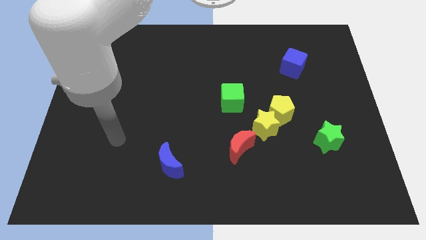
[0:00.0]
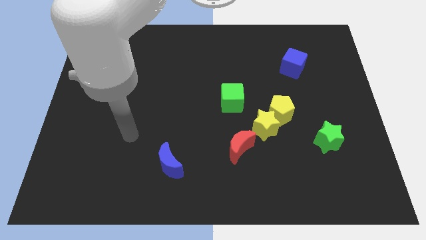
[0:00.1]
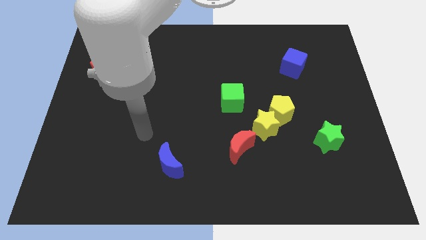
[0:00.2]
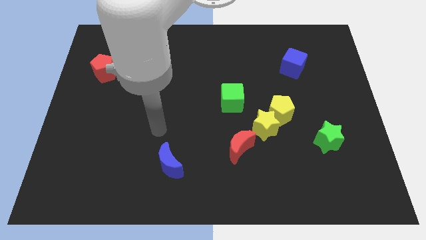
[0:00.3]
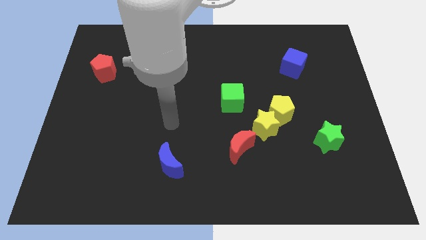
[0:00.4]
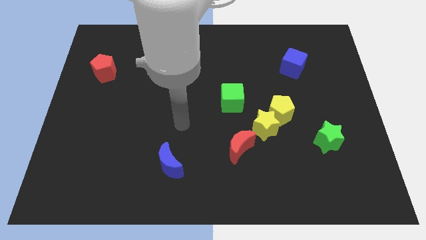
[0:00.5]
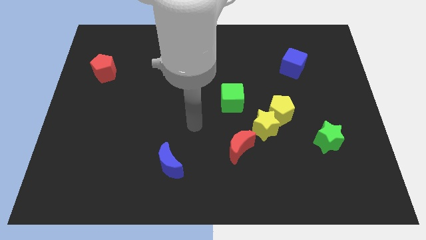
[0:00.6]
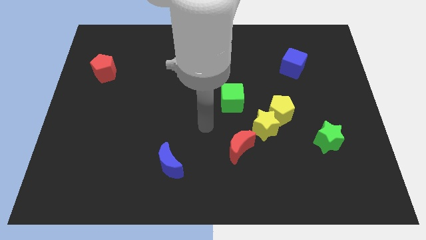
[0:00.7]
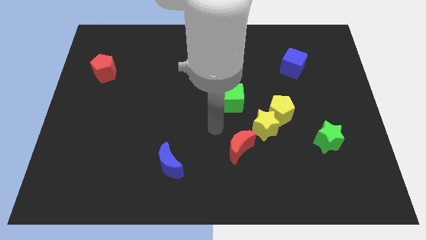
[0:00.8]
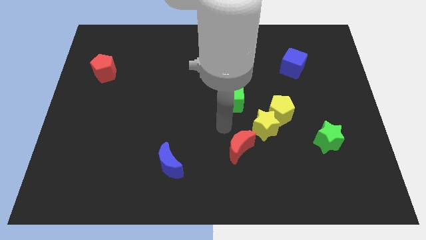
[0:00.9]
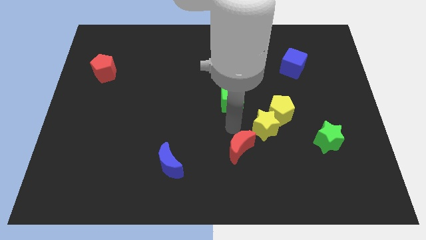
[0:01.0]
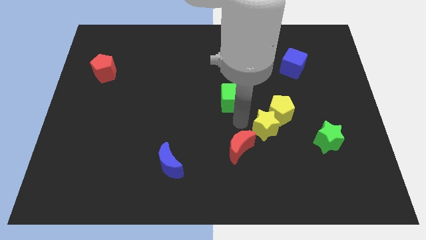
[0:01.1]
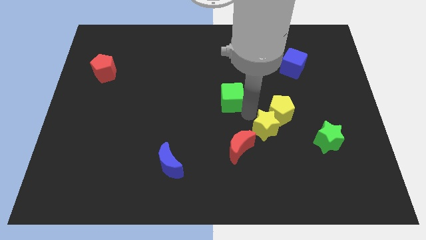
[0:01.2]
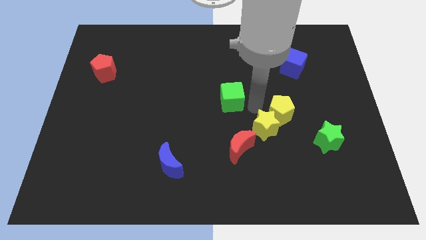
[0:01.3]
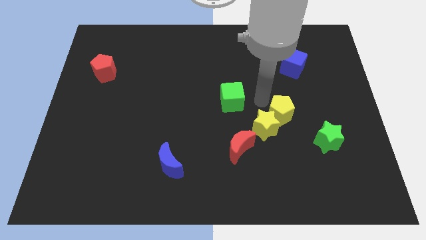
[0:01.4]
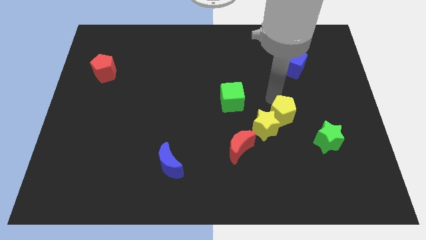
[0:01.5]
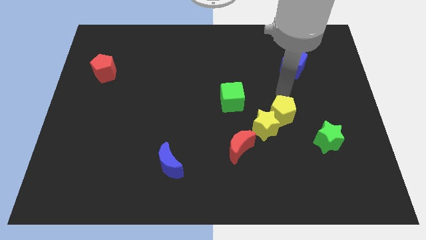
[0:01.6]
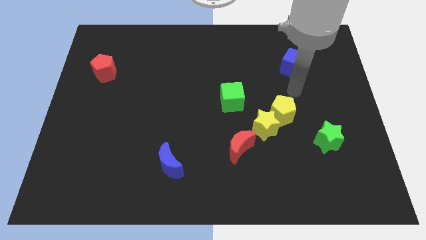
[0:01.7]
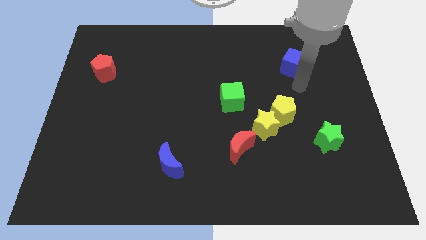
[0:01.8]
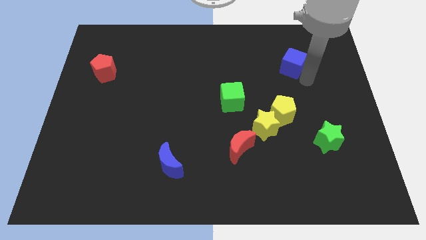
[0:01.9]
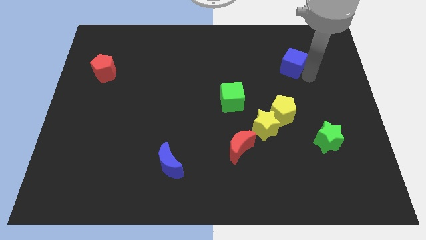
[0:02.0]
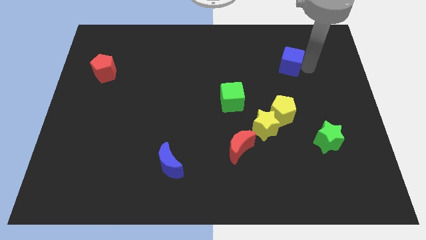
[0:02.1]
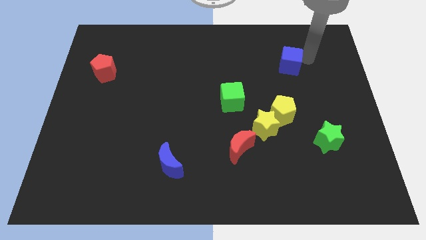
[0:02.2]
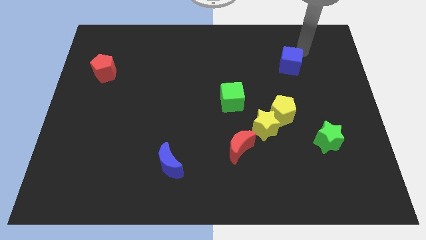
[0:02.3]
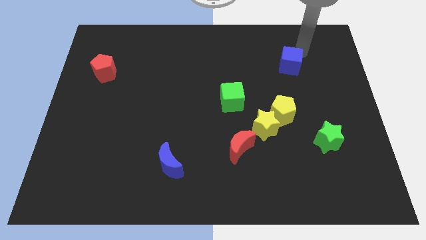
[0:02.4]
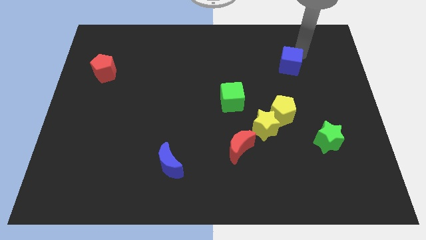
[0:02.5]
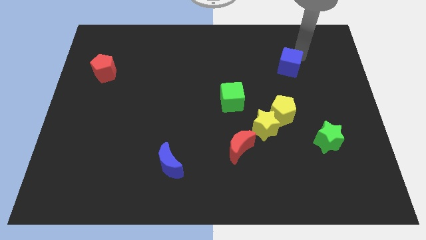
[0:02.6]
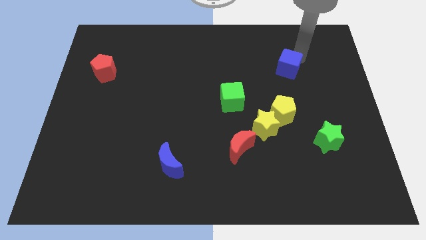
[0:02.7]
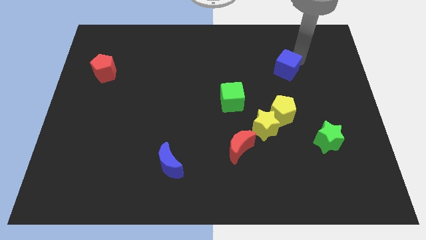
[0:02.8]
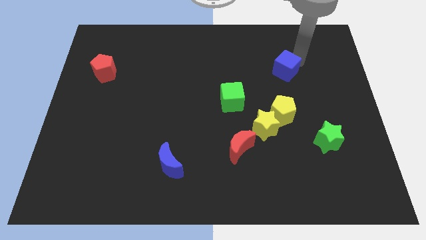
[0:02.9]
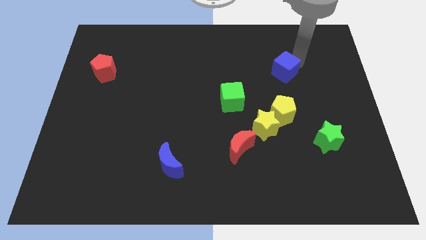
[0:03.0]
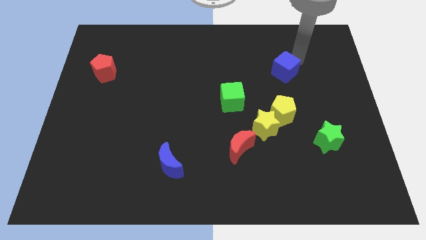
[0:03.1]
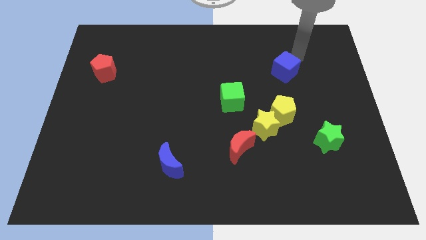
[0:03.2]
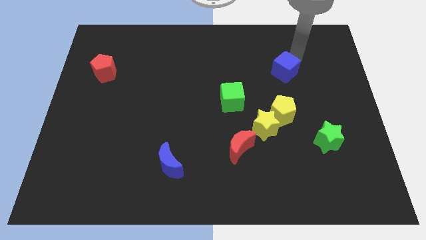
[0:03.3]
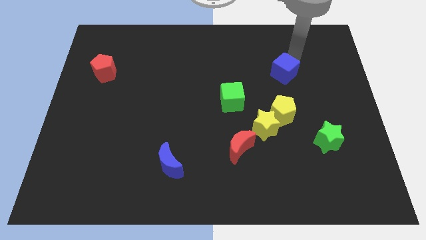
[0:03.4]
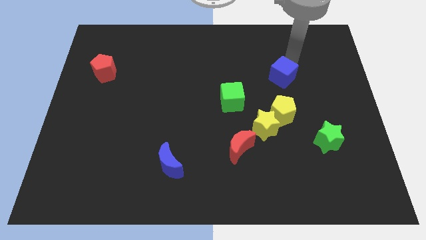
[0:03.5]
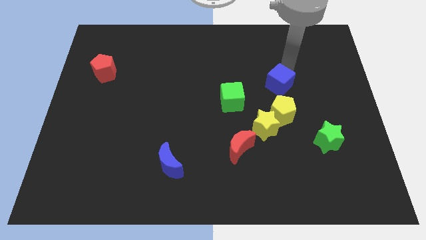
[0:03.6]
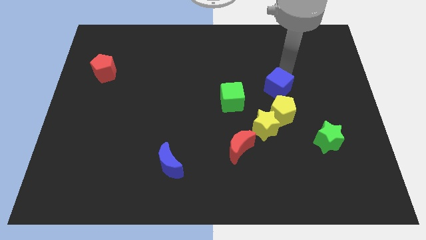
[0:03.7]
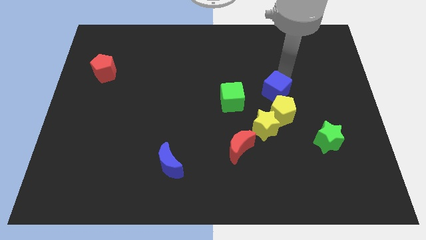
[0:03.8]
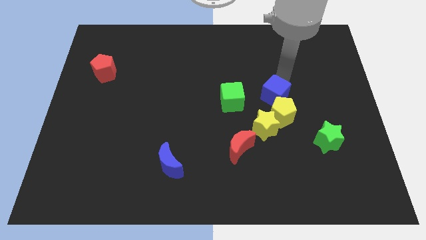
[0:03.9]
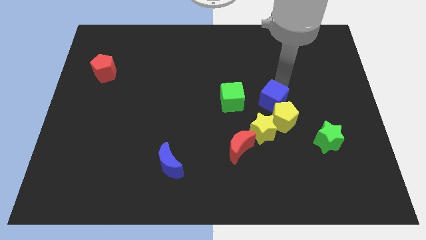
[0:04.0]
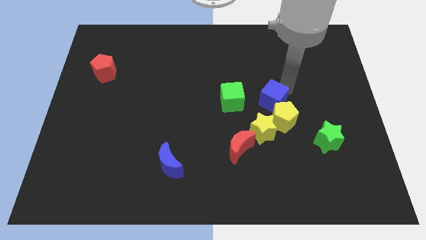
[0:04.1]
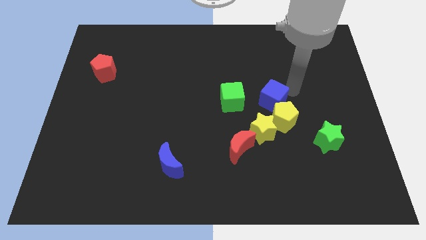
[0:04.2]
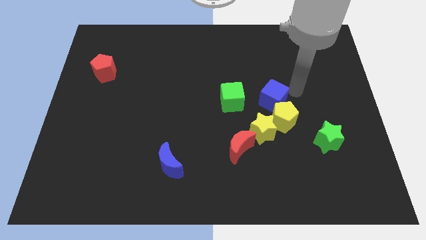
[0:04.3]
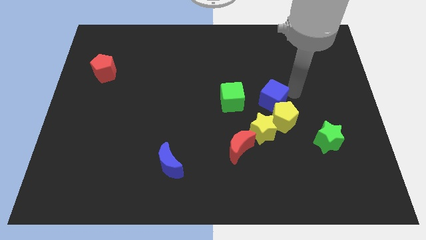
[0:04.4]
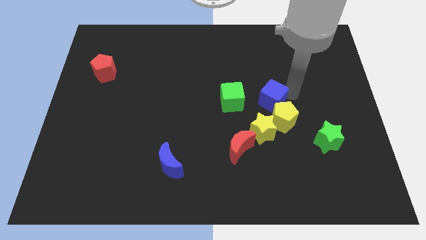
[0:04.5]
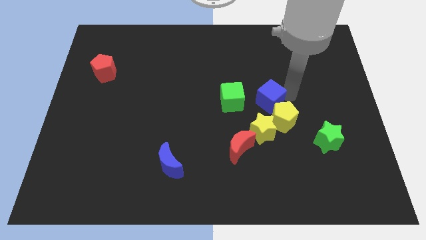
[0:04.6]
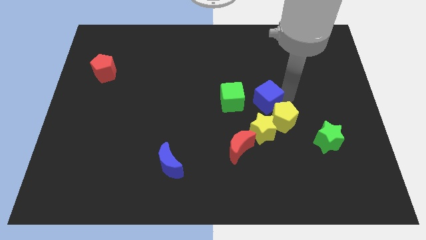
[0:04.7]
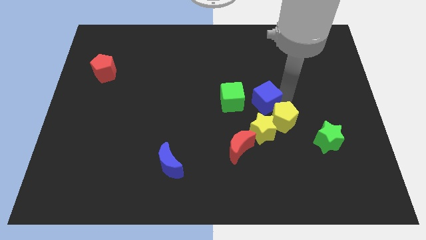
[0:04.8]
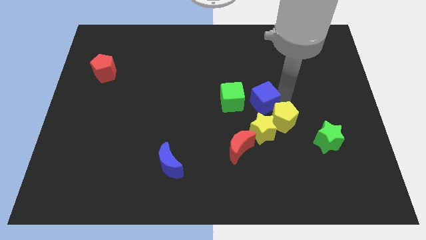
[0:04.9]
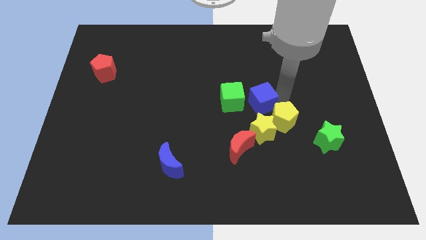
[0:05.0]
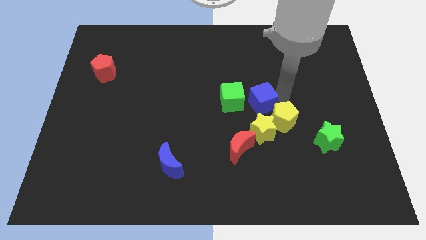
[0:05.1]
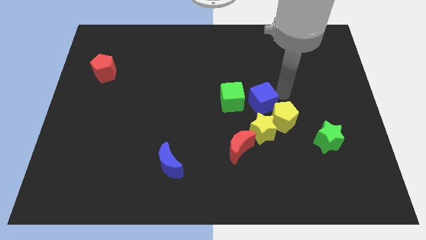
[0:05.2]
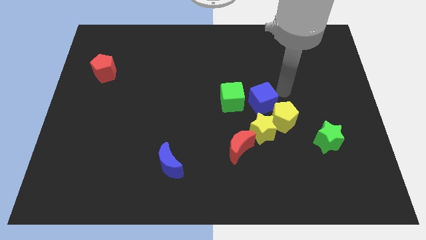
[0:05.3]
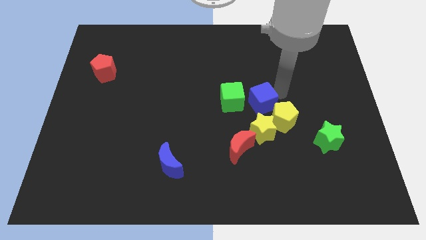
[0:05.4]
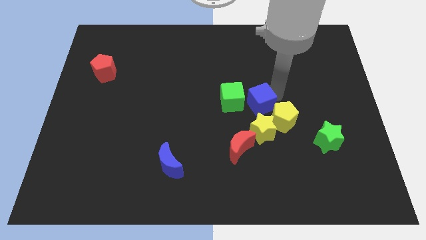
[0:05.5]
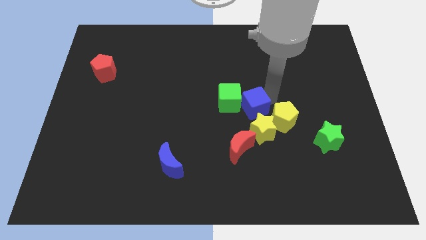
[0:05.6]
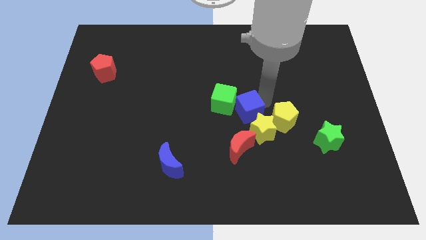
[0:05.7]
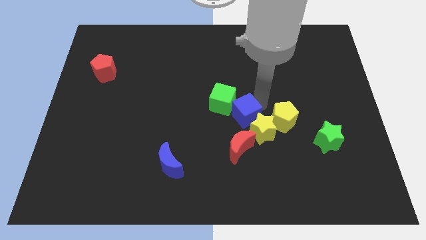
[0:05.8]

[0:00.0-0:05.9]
push the blue cube diagonally downwards and to the left

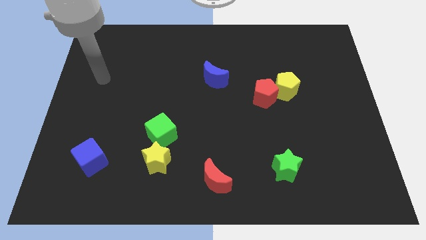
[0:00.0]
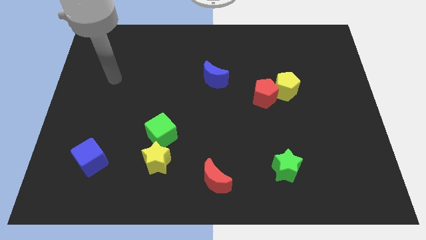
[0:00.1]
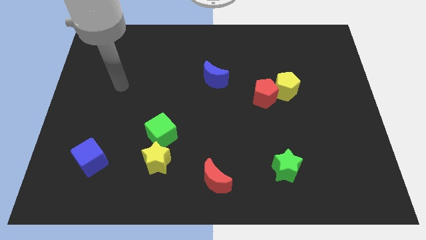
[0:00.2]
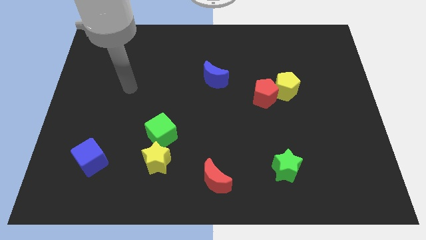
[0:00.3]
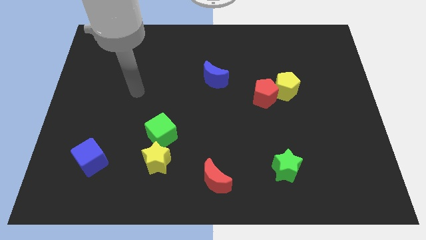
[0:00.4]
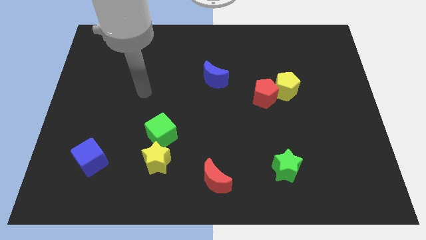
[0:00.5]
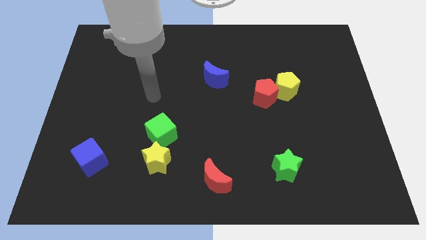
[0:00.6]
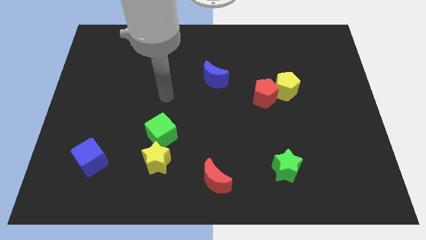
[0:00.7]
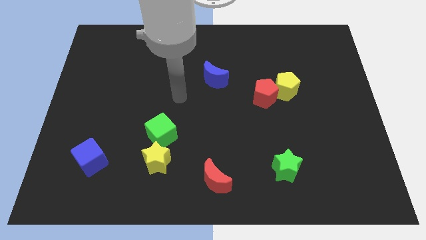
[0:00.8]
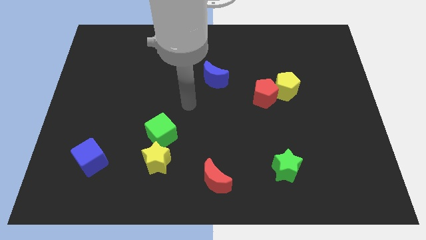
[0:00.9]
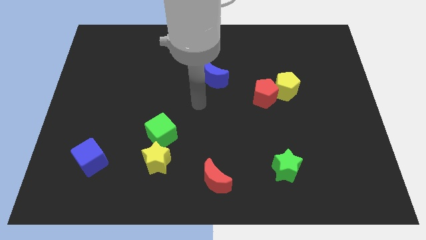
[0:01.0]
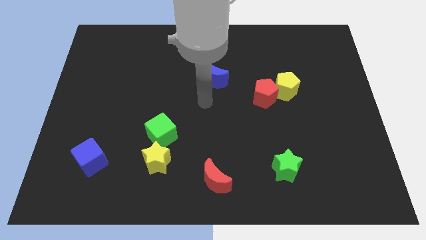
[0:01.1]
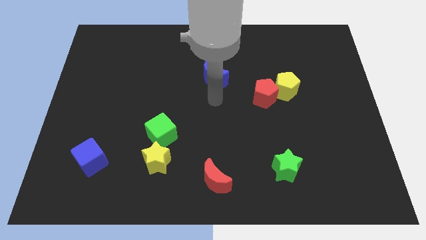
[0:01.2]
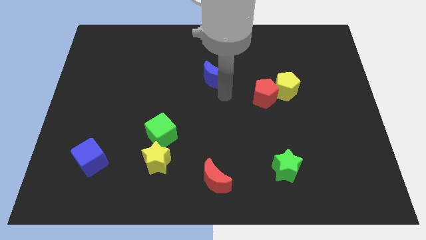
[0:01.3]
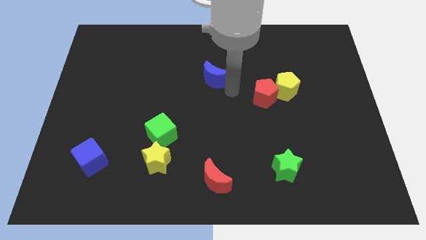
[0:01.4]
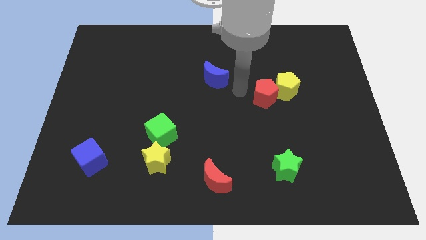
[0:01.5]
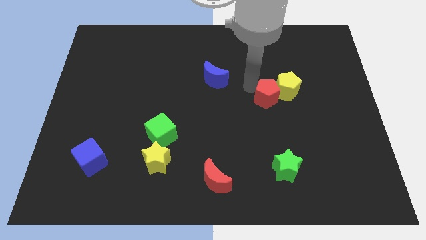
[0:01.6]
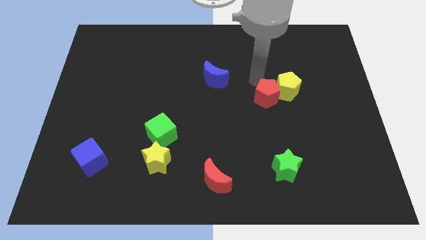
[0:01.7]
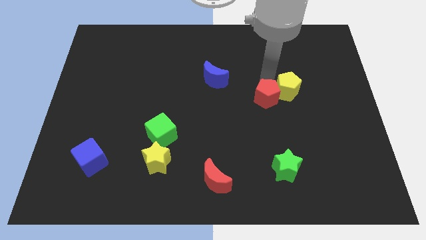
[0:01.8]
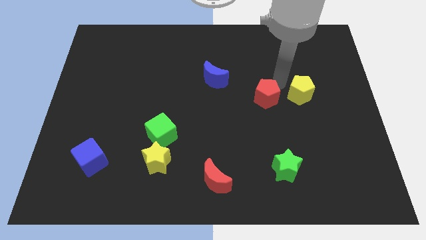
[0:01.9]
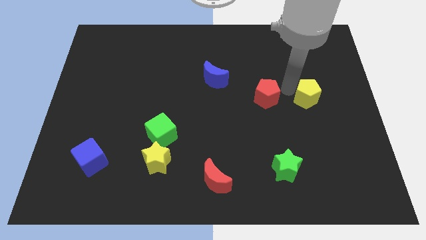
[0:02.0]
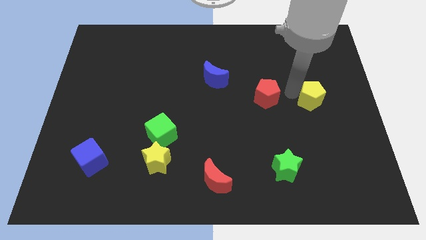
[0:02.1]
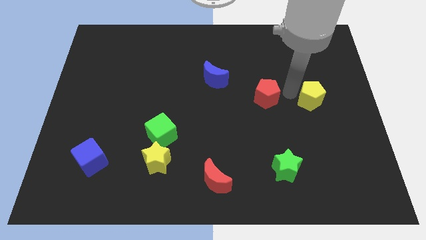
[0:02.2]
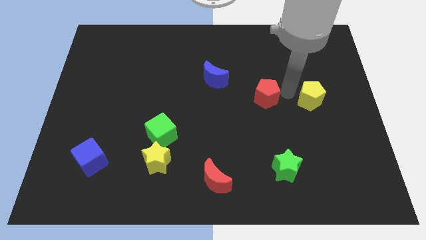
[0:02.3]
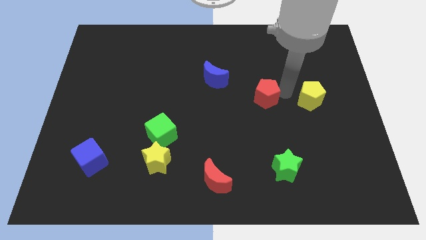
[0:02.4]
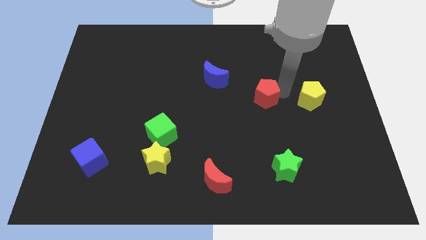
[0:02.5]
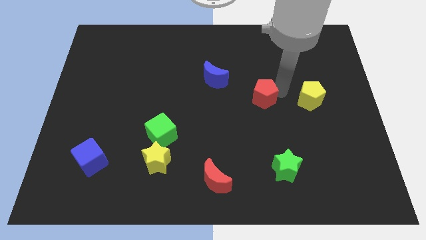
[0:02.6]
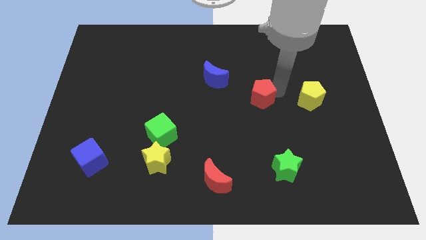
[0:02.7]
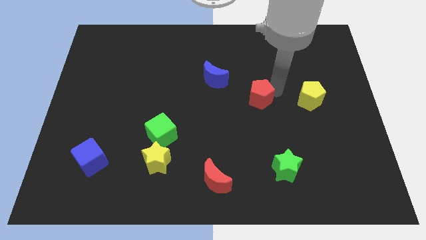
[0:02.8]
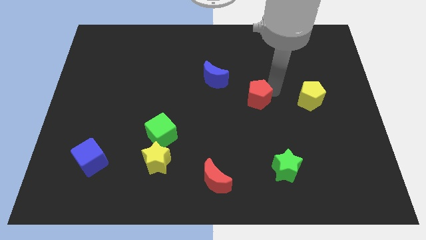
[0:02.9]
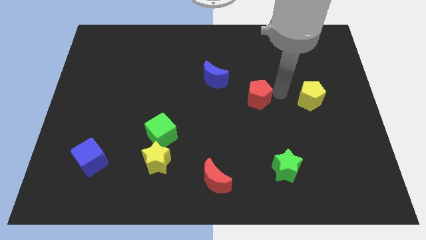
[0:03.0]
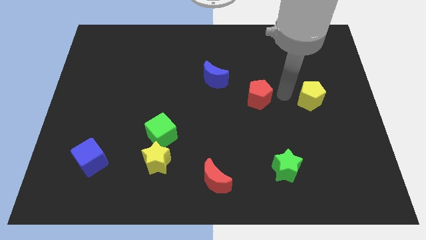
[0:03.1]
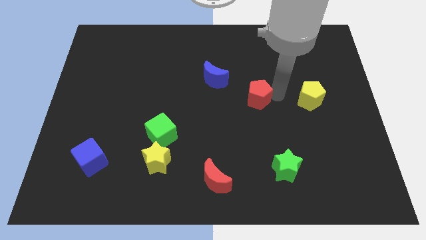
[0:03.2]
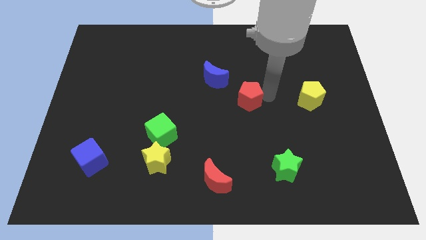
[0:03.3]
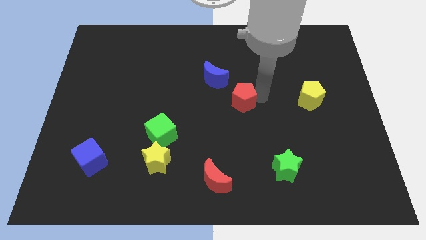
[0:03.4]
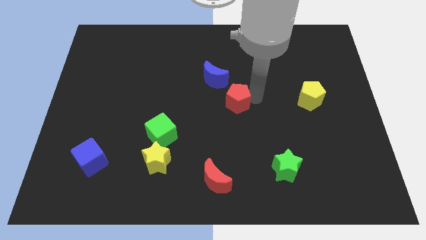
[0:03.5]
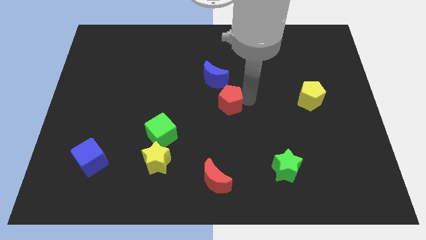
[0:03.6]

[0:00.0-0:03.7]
slightly move the red pentagon left
